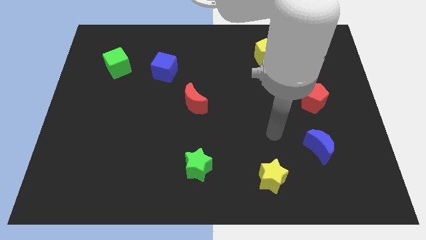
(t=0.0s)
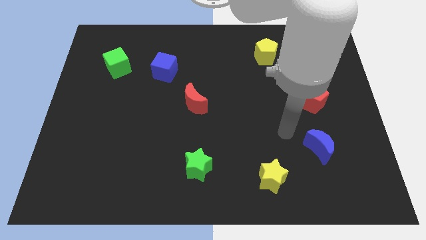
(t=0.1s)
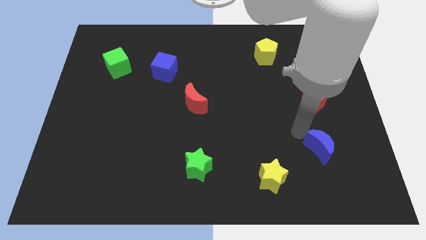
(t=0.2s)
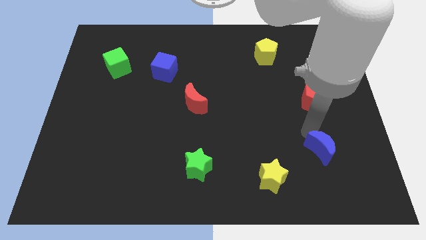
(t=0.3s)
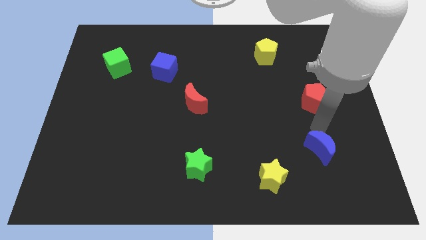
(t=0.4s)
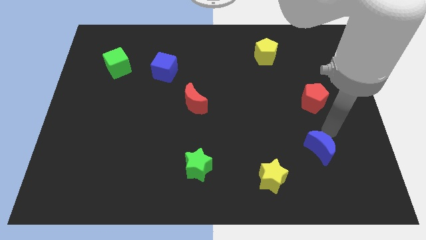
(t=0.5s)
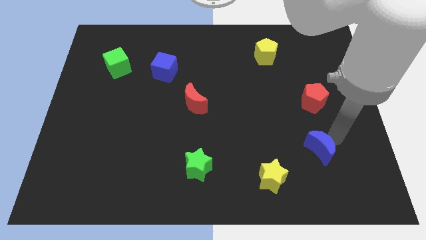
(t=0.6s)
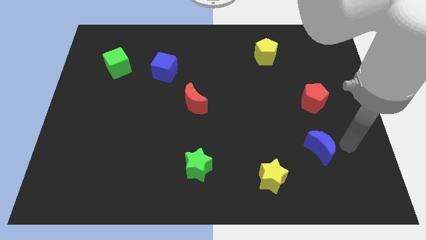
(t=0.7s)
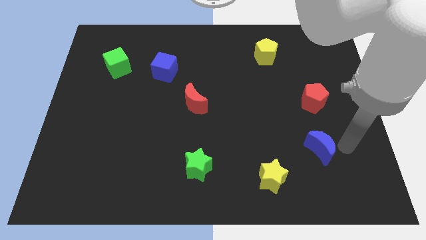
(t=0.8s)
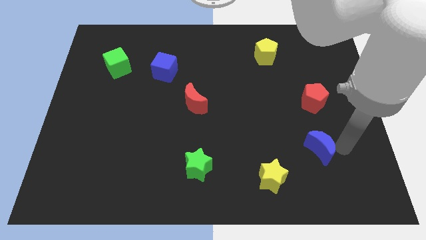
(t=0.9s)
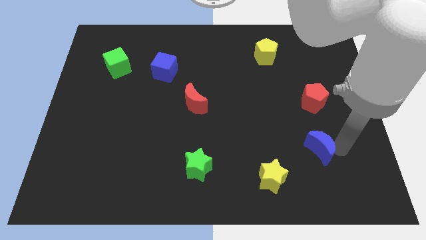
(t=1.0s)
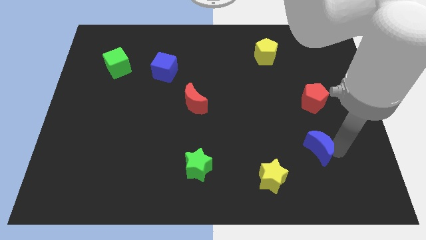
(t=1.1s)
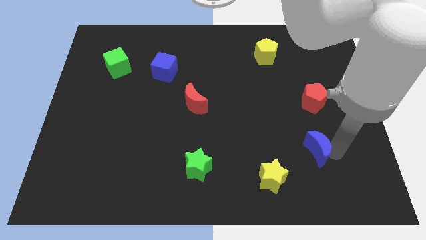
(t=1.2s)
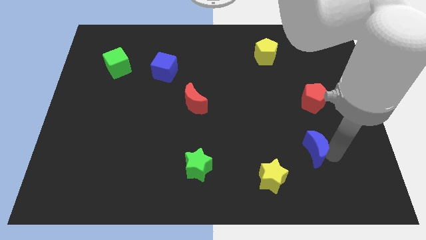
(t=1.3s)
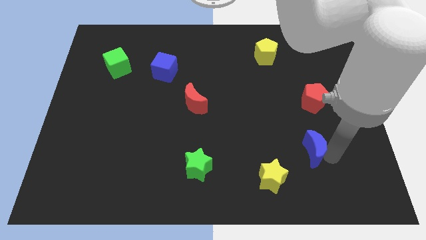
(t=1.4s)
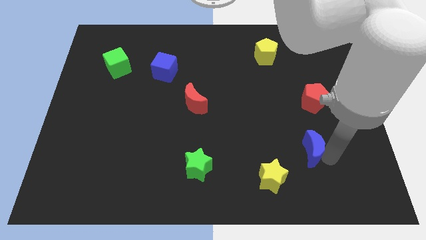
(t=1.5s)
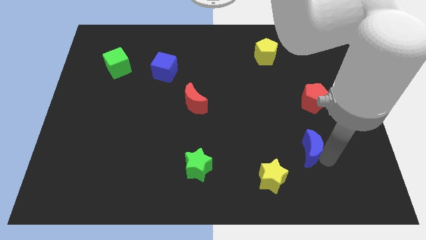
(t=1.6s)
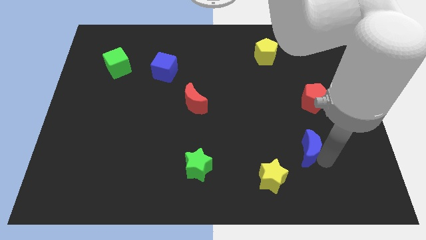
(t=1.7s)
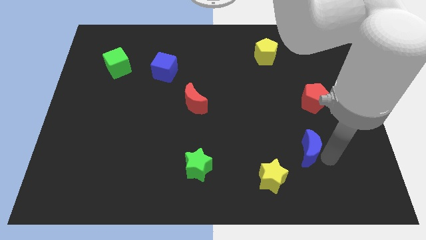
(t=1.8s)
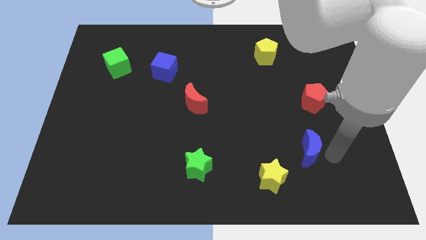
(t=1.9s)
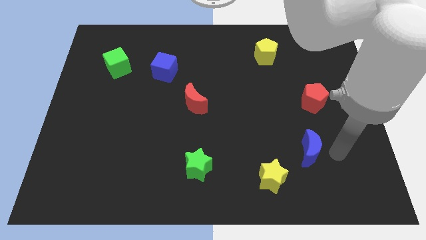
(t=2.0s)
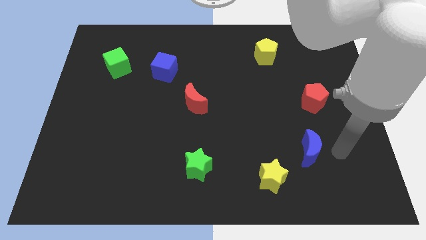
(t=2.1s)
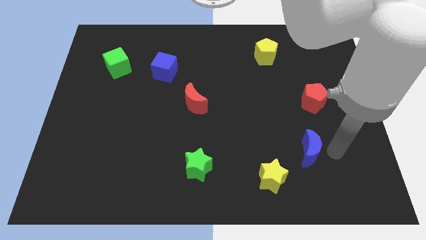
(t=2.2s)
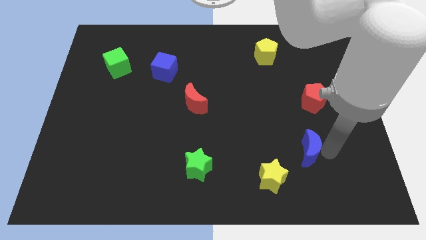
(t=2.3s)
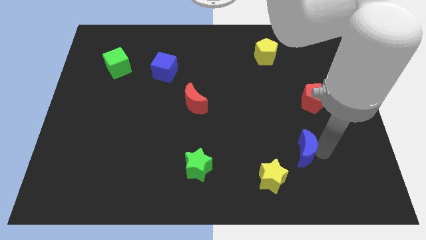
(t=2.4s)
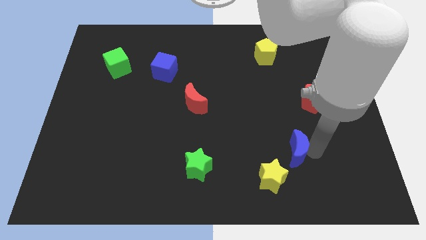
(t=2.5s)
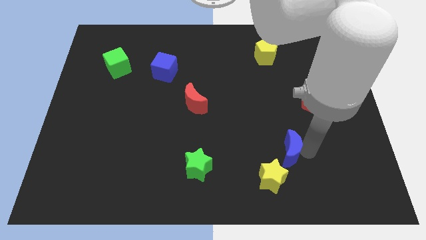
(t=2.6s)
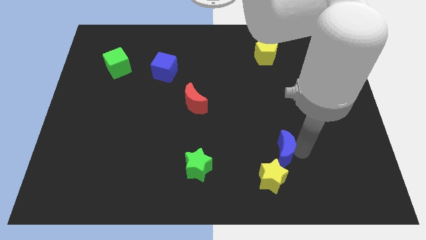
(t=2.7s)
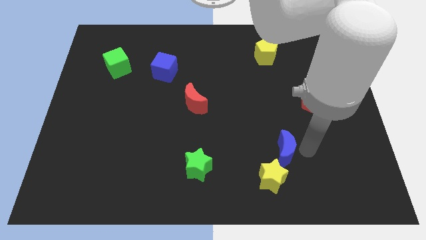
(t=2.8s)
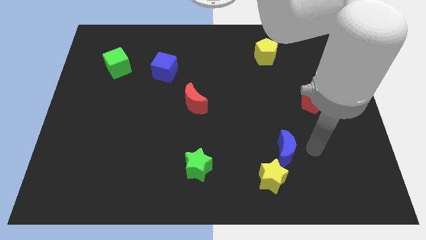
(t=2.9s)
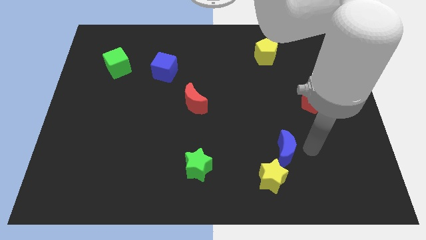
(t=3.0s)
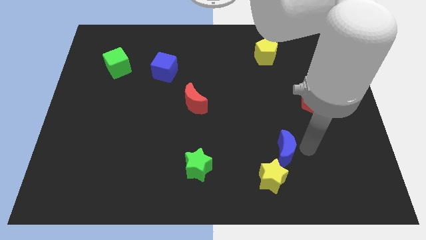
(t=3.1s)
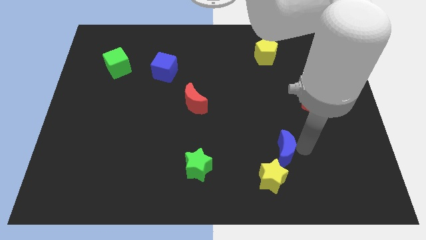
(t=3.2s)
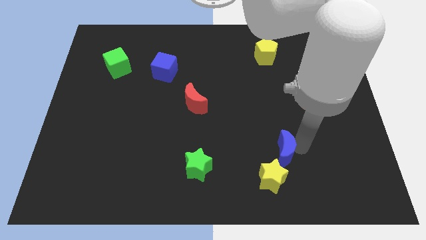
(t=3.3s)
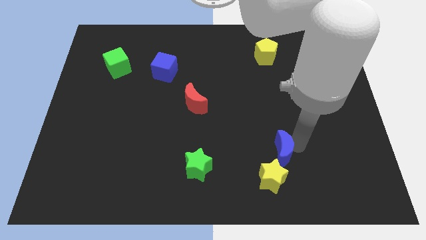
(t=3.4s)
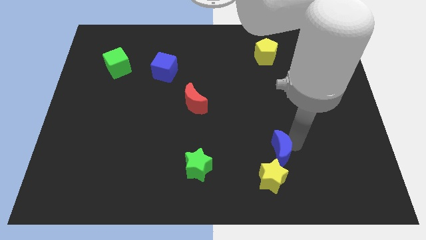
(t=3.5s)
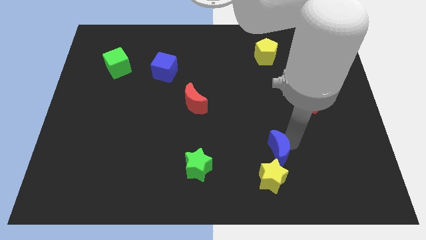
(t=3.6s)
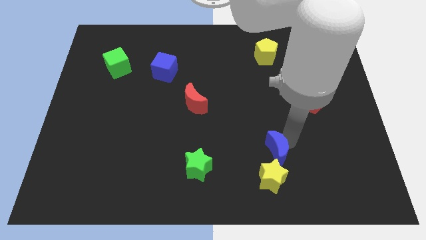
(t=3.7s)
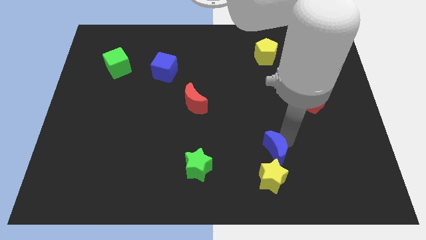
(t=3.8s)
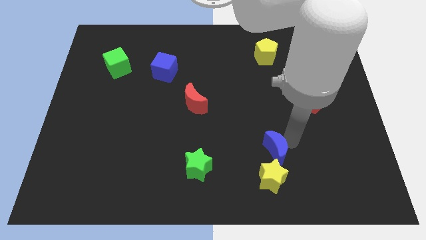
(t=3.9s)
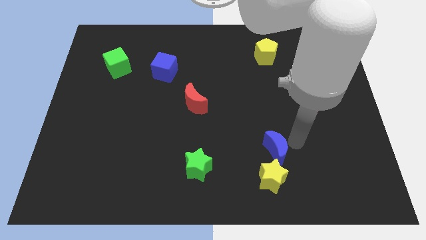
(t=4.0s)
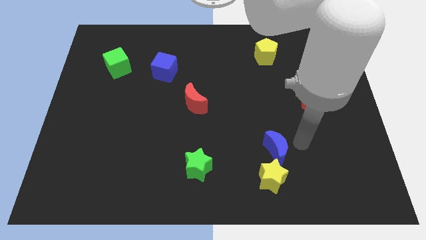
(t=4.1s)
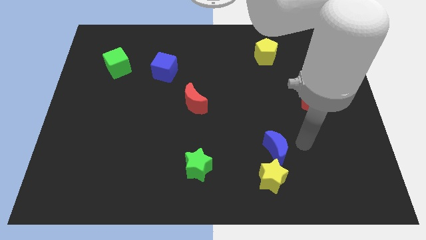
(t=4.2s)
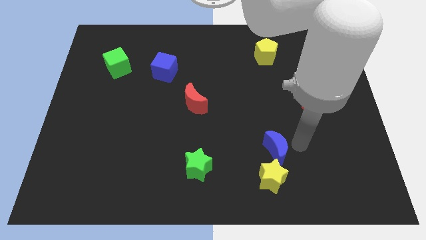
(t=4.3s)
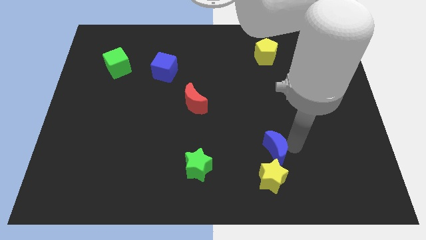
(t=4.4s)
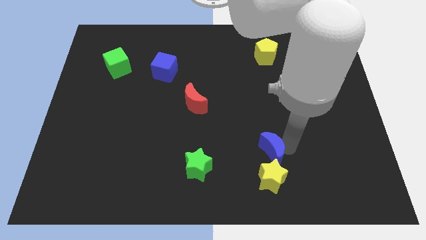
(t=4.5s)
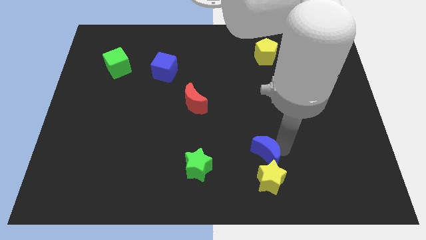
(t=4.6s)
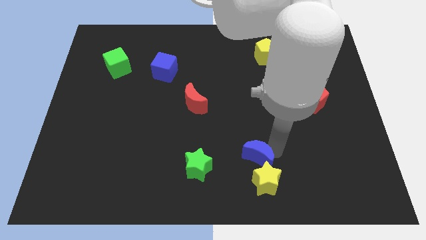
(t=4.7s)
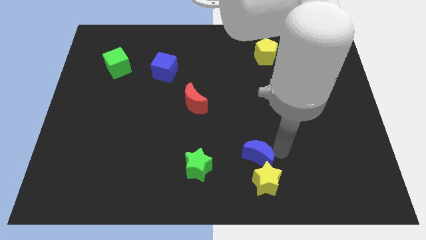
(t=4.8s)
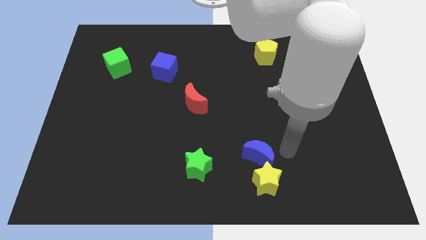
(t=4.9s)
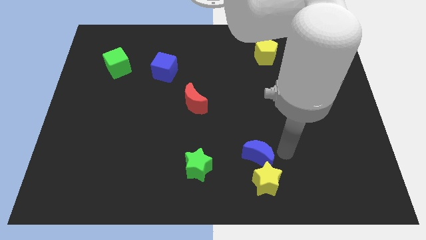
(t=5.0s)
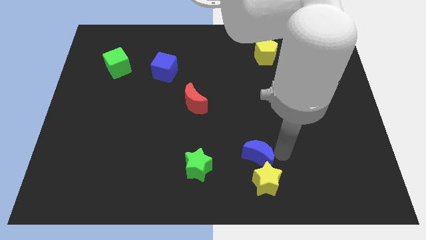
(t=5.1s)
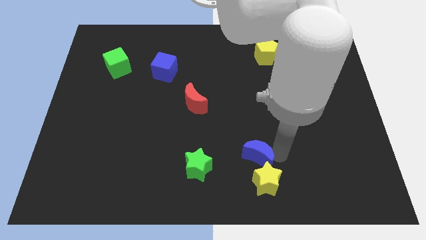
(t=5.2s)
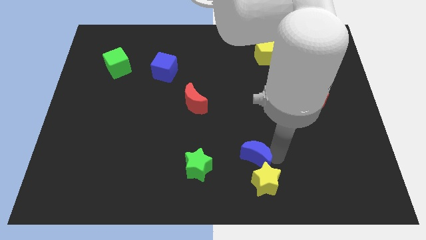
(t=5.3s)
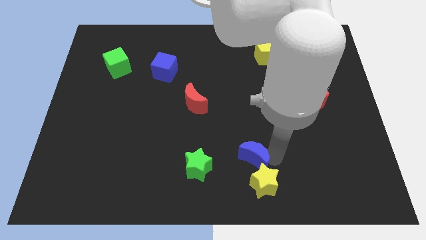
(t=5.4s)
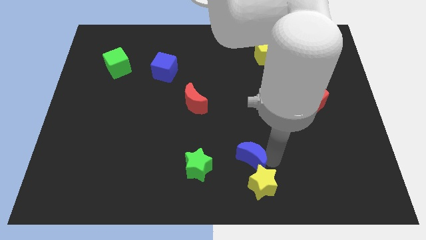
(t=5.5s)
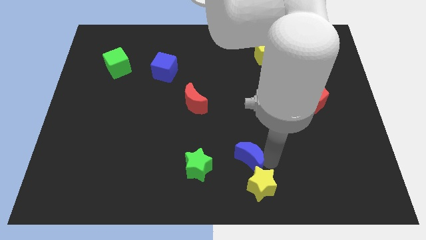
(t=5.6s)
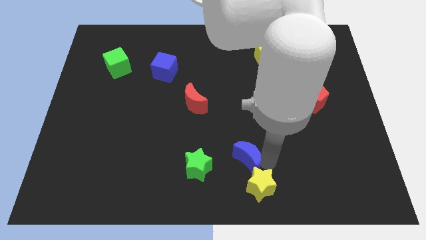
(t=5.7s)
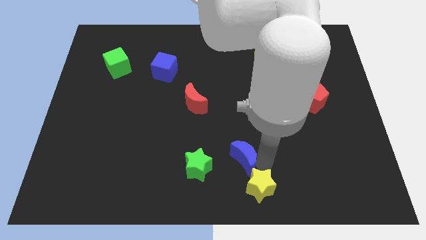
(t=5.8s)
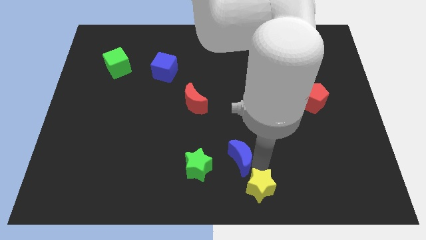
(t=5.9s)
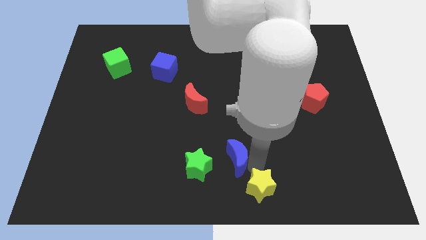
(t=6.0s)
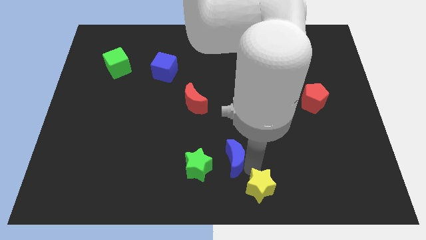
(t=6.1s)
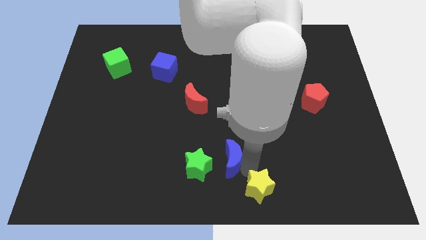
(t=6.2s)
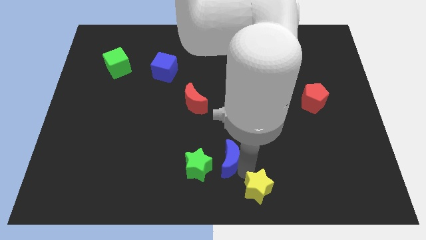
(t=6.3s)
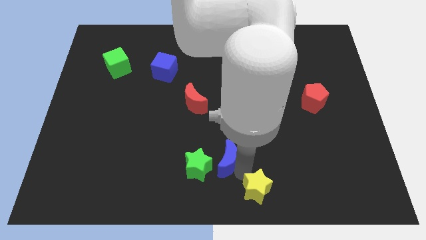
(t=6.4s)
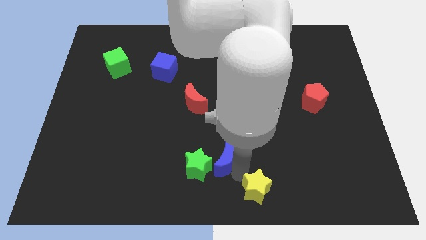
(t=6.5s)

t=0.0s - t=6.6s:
slide the blue moon left

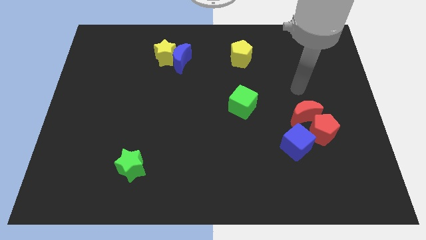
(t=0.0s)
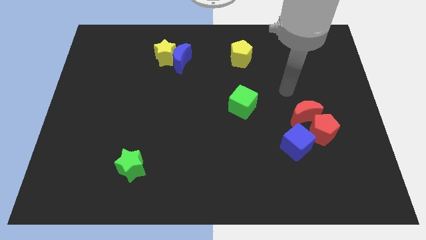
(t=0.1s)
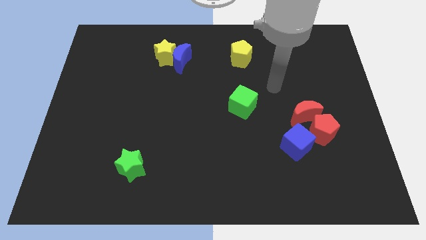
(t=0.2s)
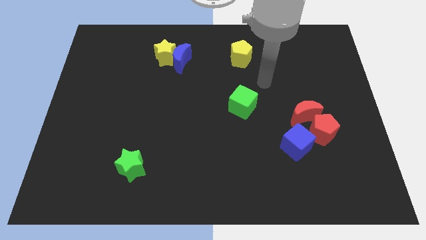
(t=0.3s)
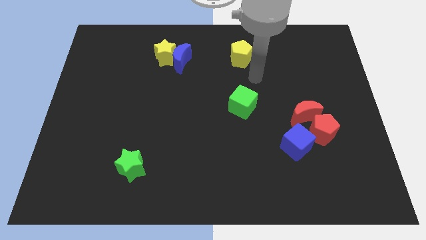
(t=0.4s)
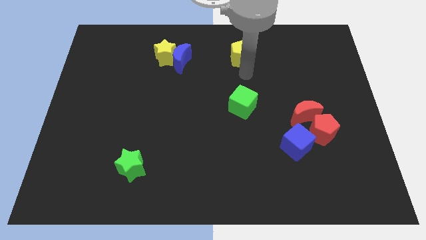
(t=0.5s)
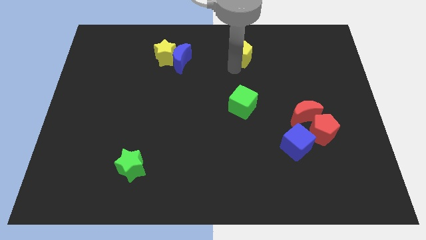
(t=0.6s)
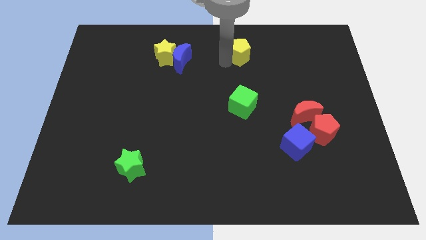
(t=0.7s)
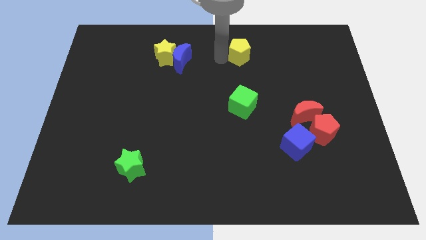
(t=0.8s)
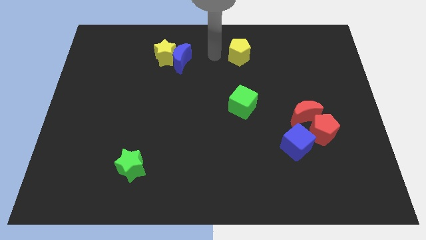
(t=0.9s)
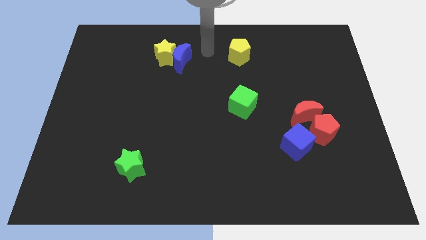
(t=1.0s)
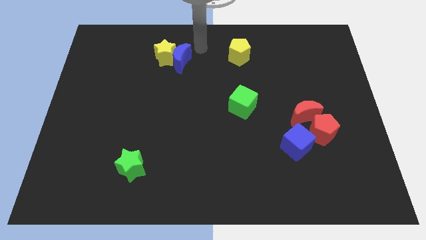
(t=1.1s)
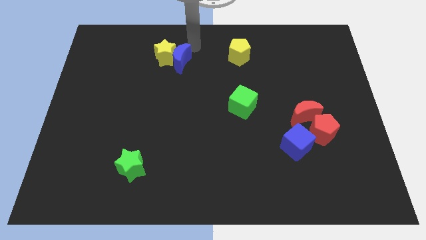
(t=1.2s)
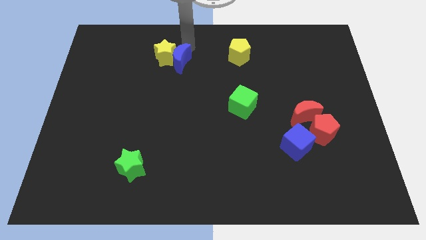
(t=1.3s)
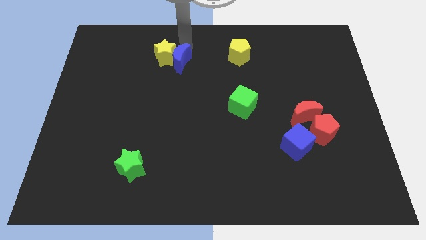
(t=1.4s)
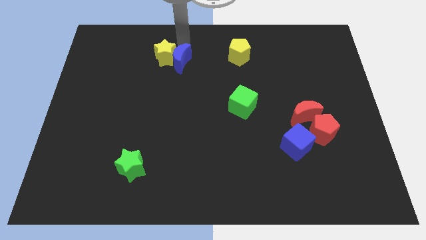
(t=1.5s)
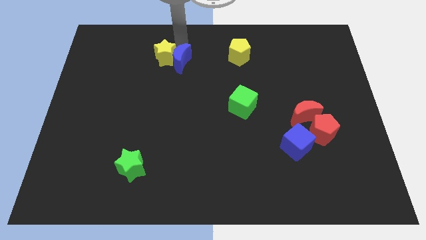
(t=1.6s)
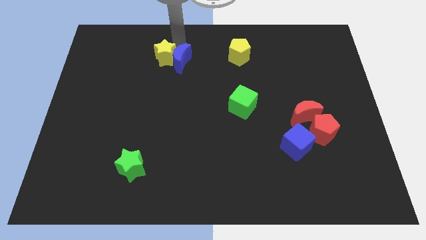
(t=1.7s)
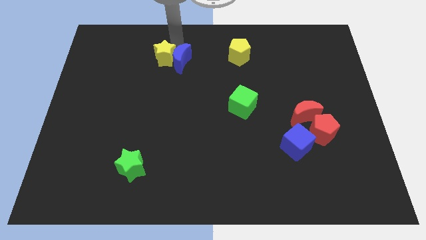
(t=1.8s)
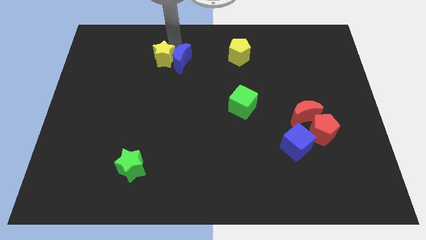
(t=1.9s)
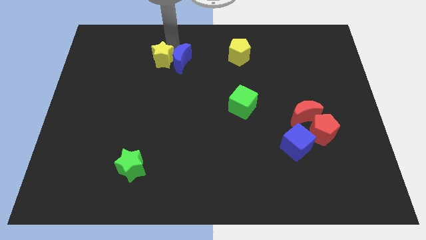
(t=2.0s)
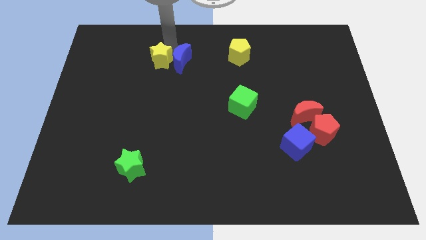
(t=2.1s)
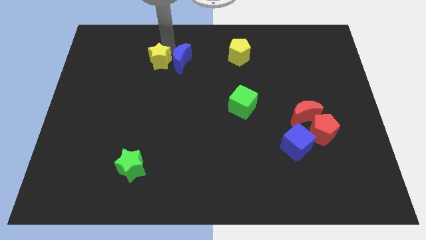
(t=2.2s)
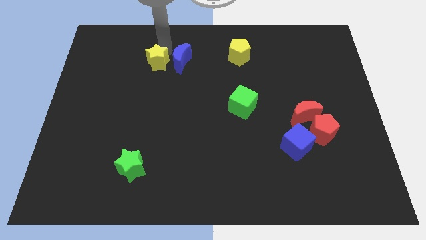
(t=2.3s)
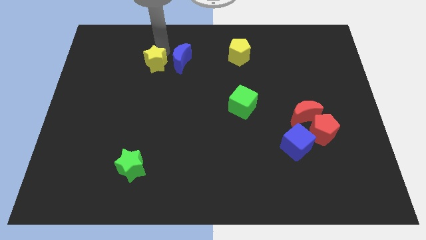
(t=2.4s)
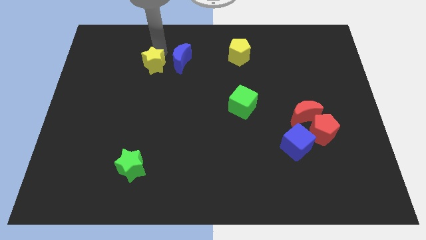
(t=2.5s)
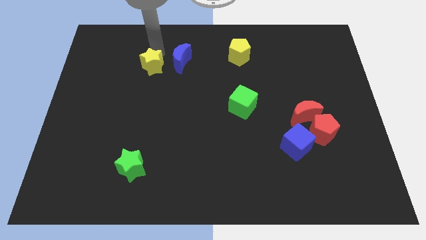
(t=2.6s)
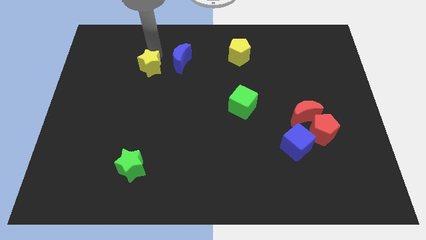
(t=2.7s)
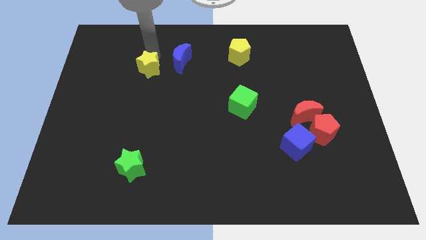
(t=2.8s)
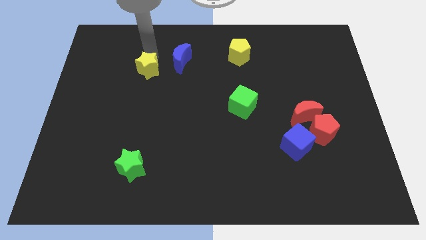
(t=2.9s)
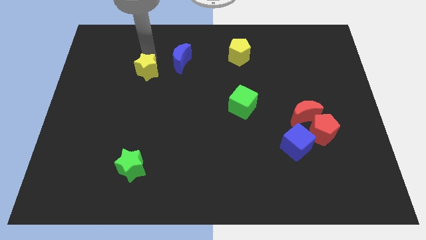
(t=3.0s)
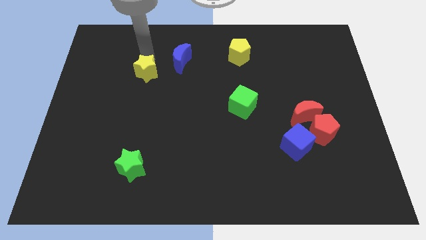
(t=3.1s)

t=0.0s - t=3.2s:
slightly slide the yellow star diagonally down and to the left
